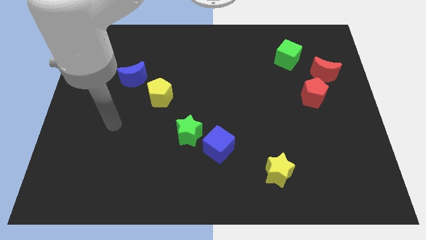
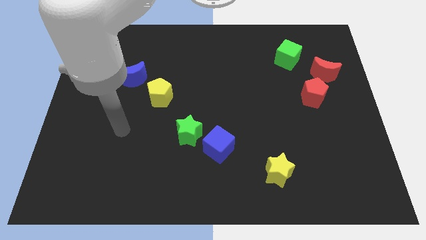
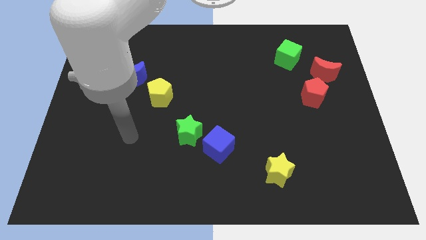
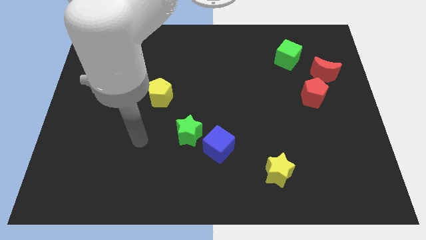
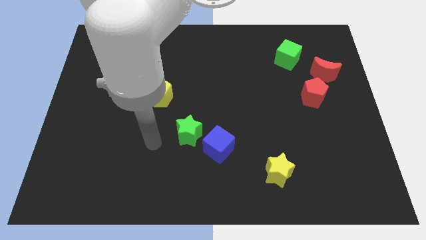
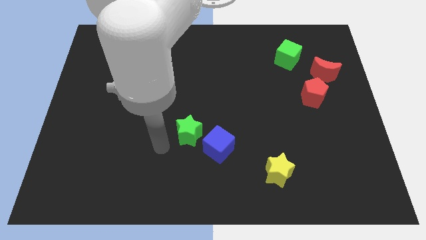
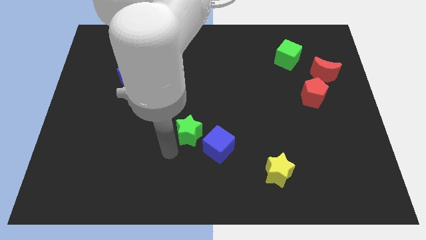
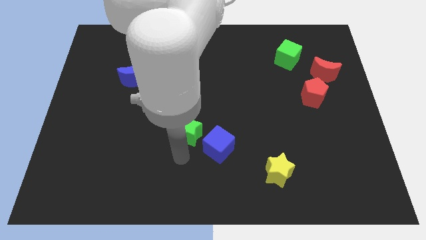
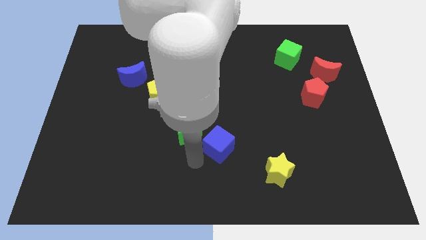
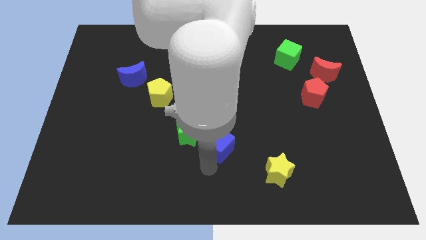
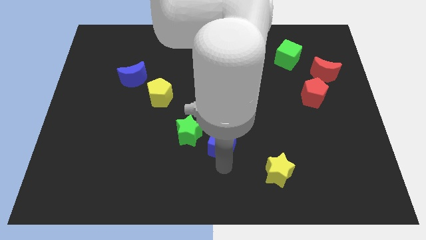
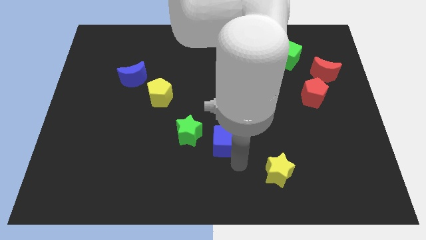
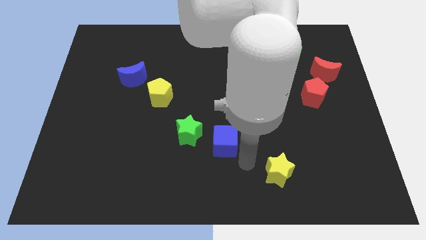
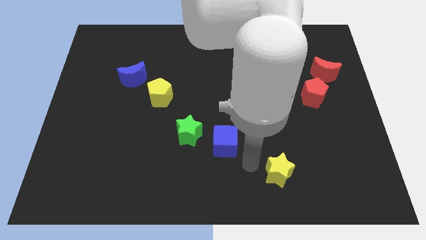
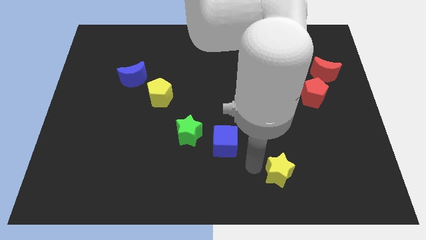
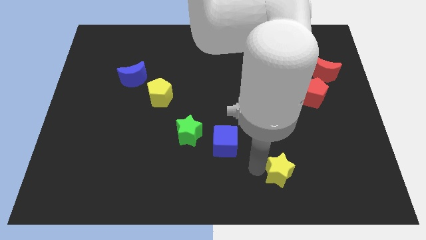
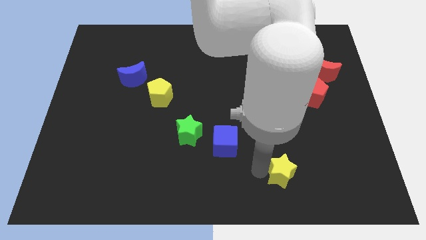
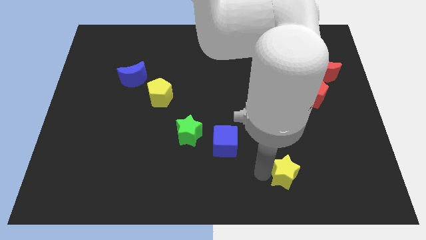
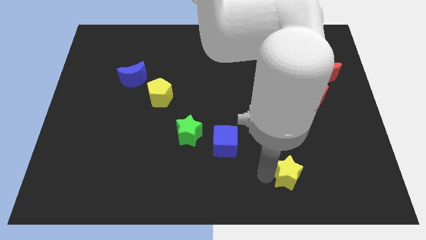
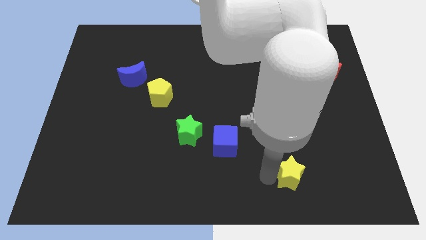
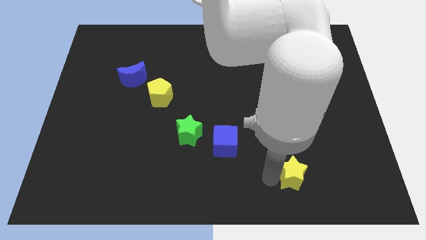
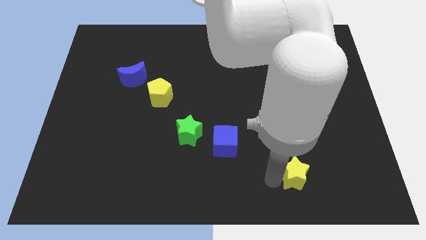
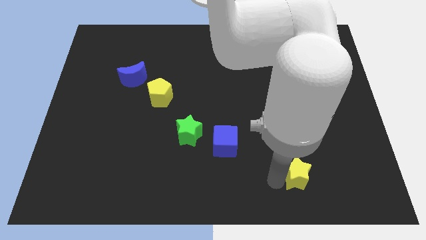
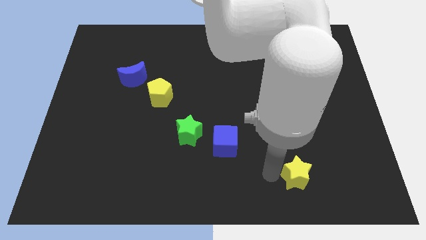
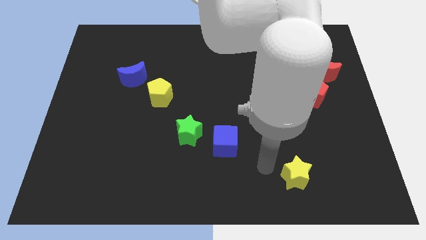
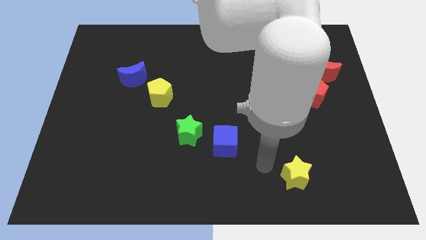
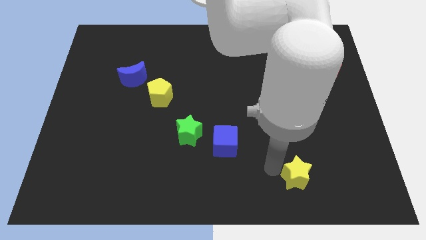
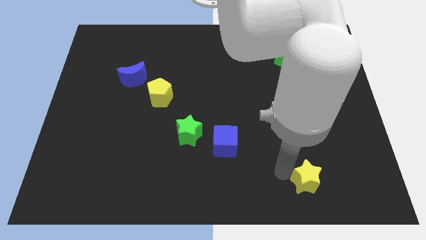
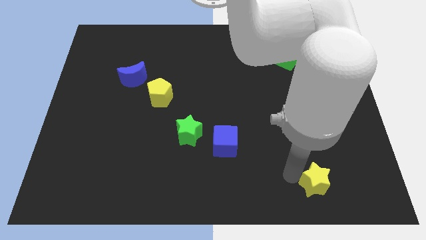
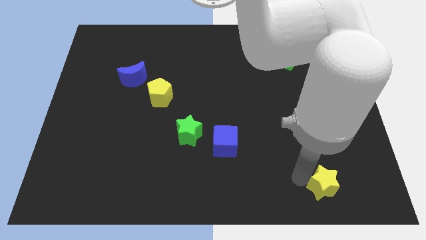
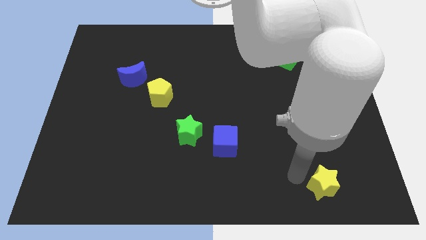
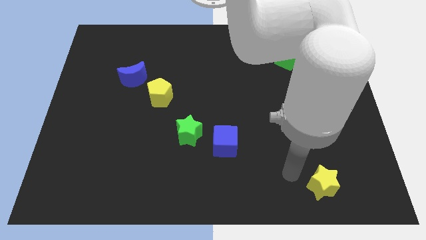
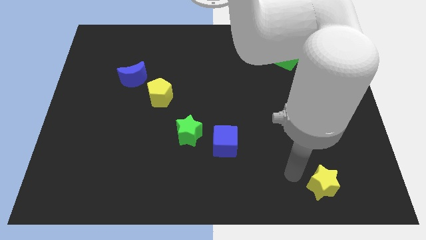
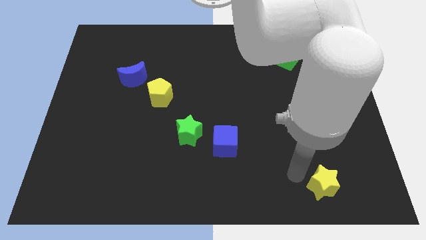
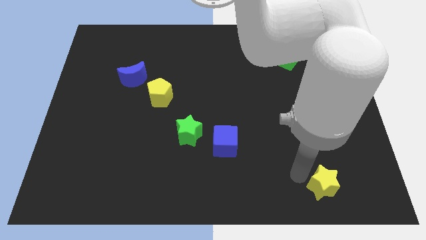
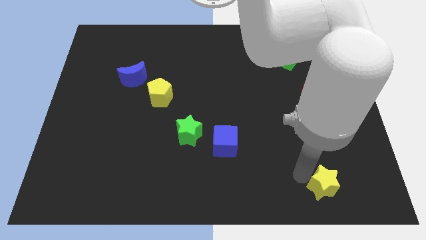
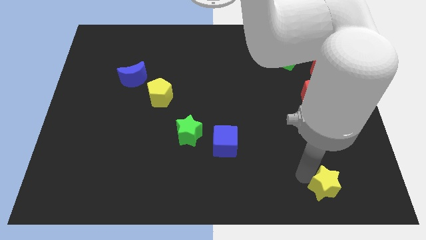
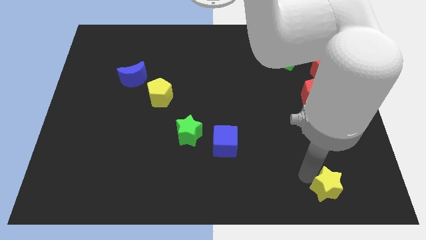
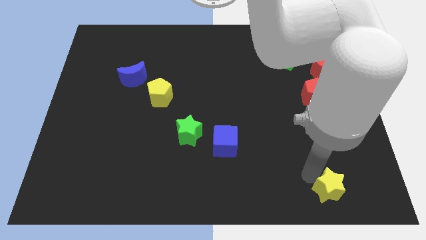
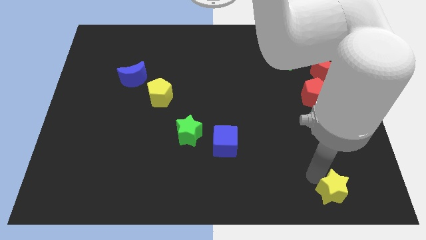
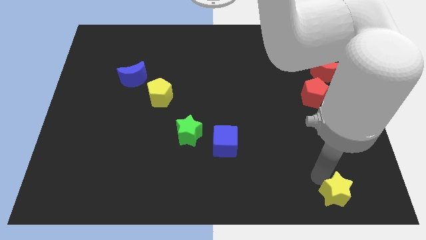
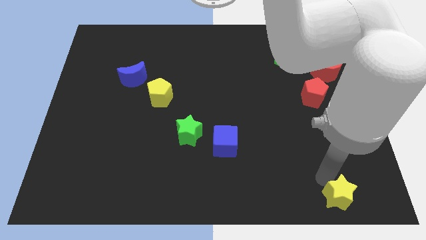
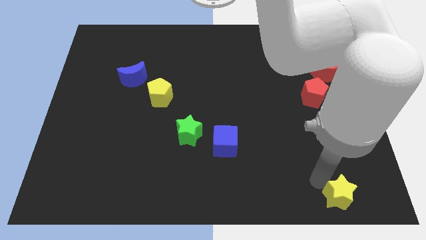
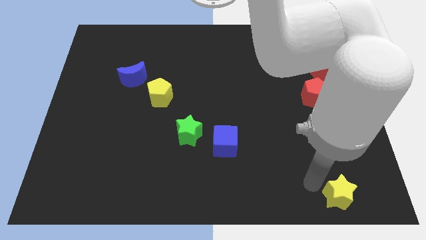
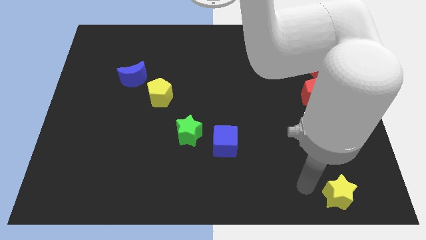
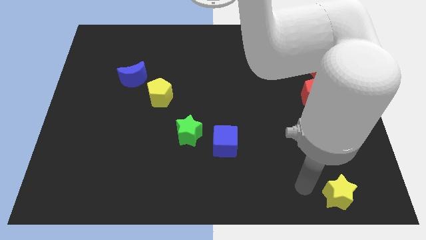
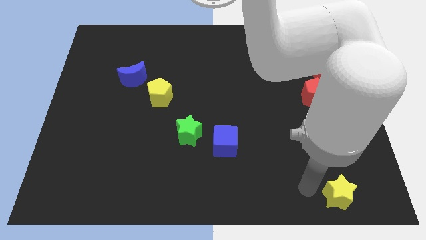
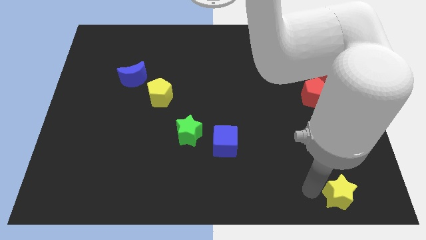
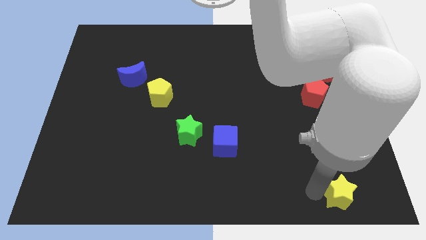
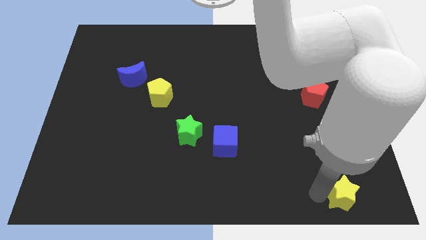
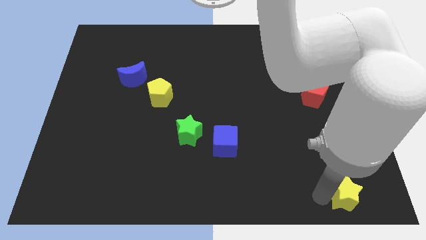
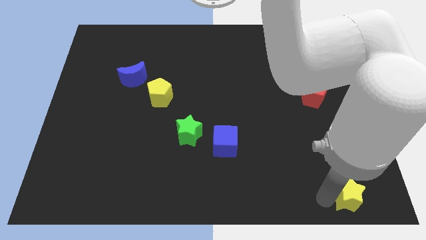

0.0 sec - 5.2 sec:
push the yellow star to the bottom right corner

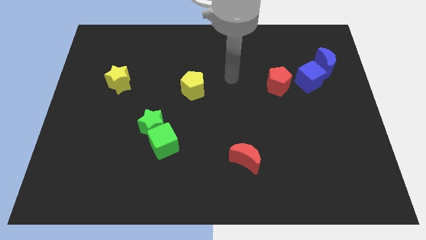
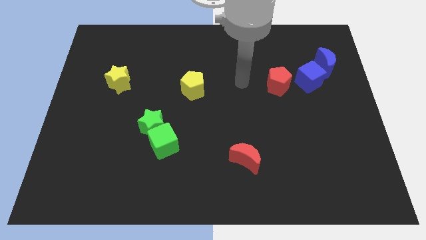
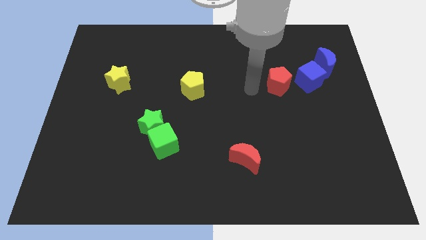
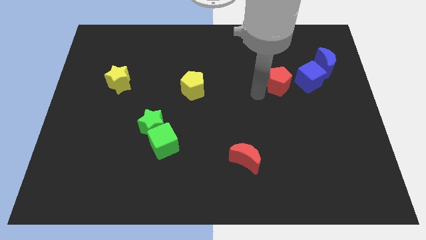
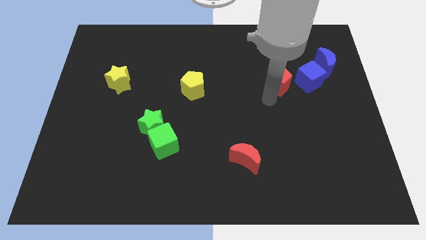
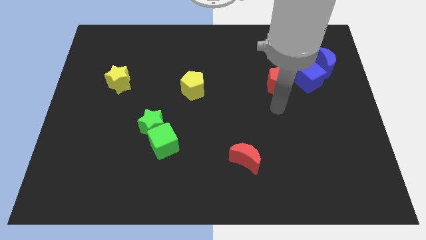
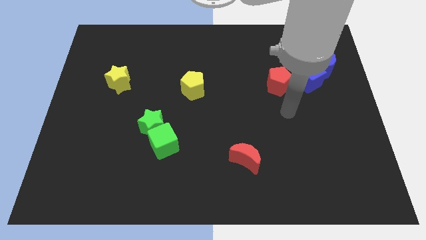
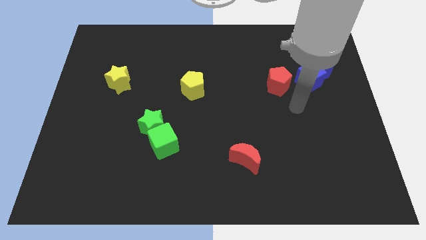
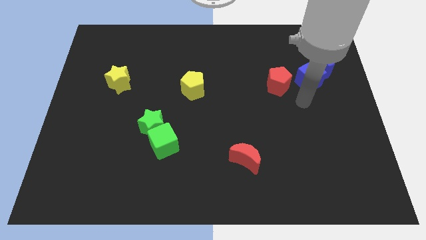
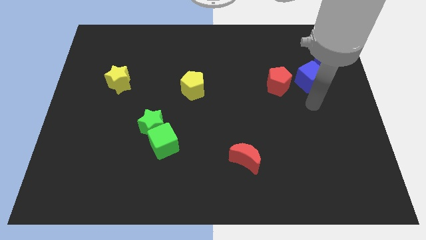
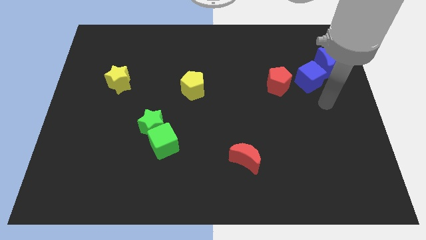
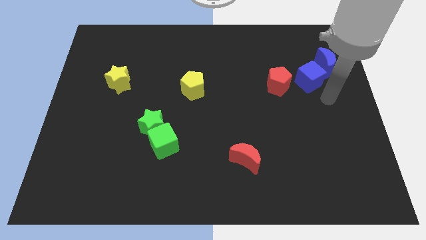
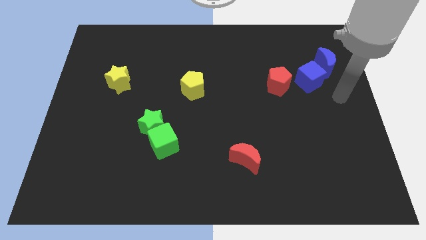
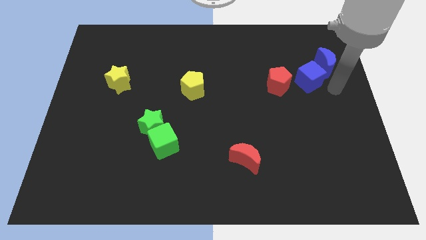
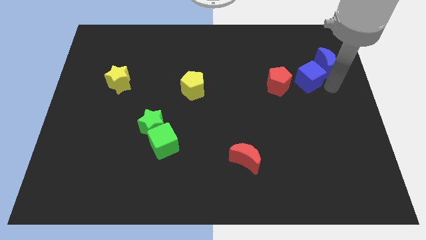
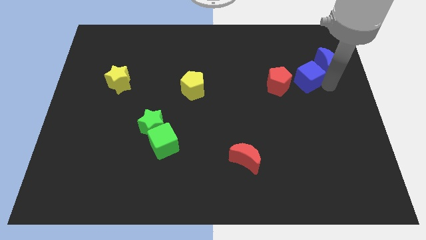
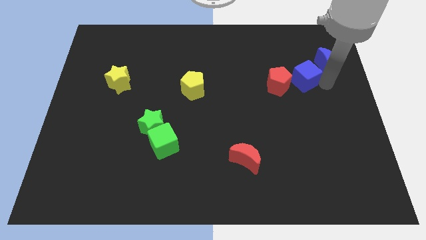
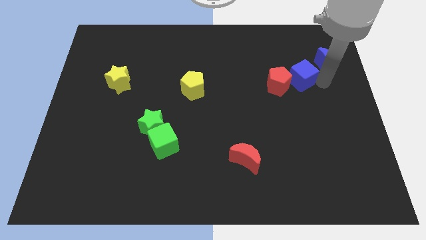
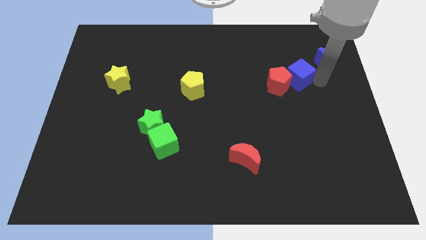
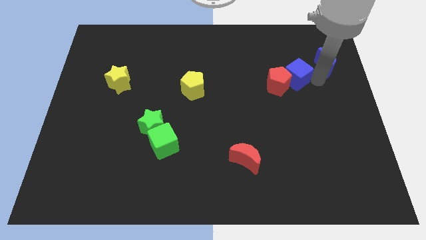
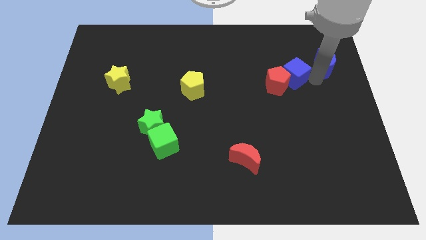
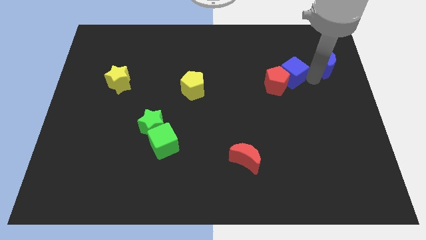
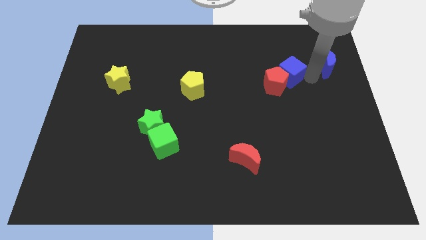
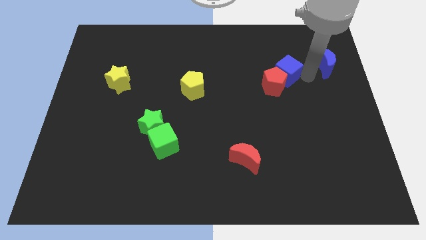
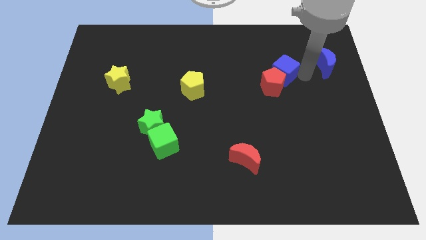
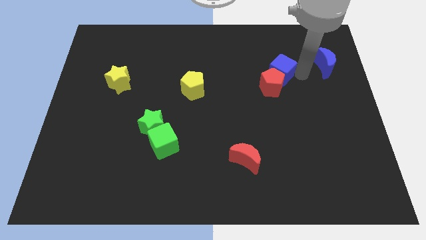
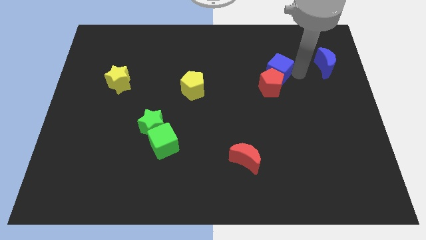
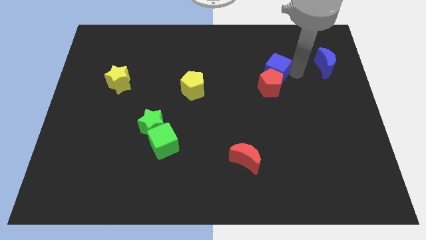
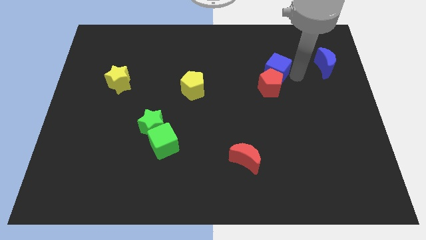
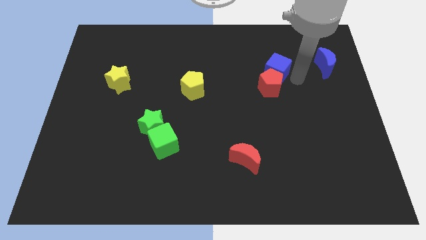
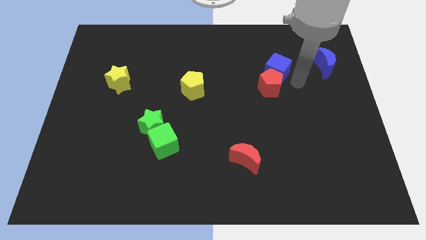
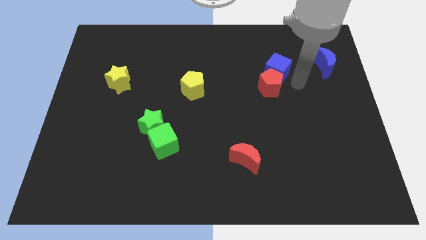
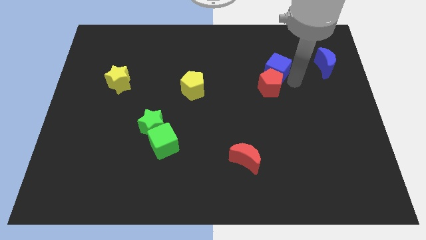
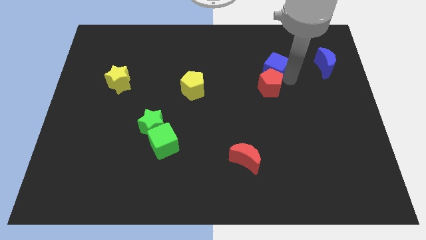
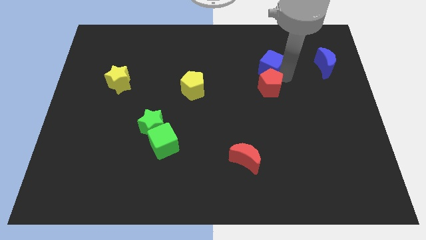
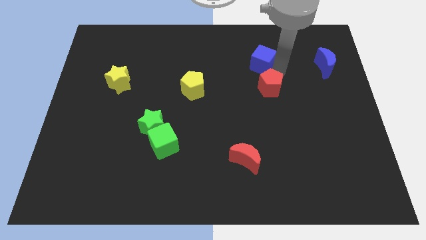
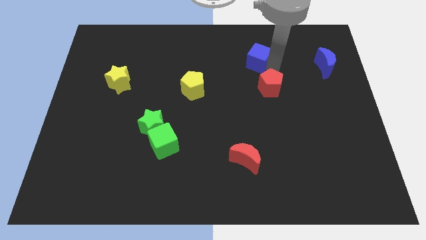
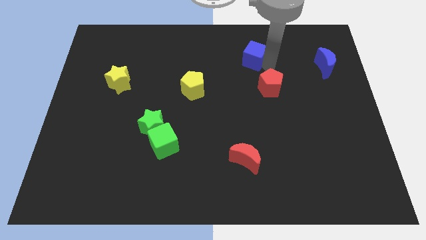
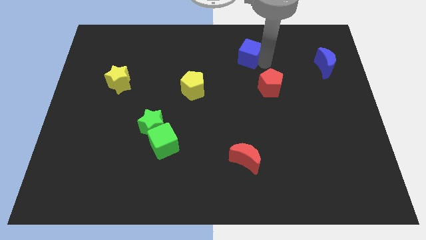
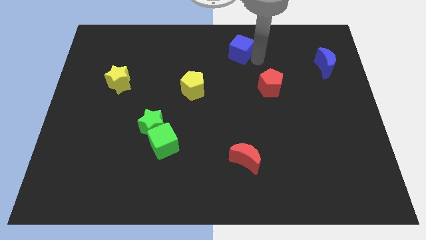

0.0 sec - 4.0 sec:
push the blue cube to the top side
